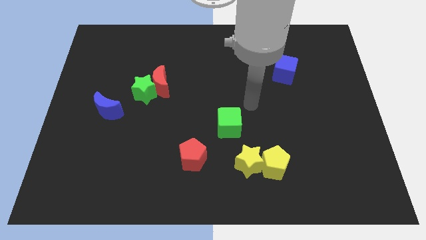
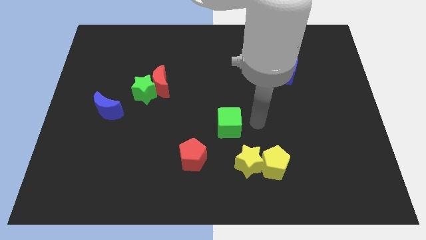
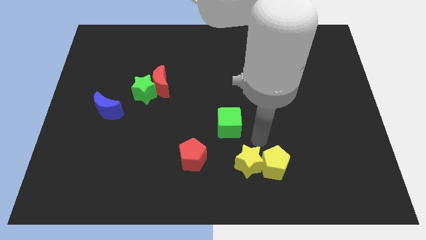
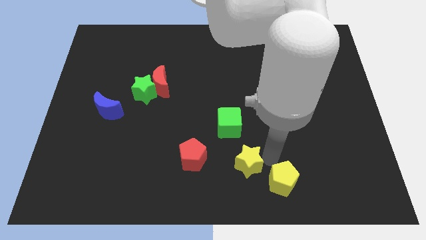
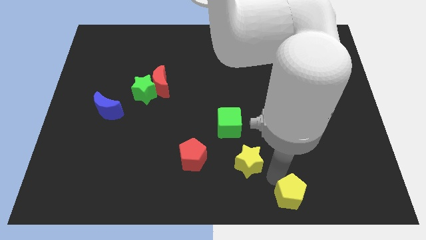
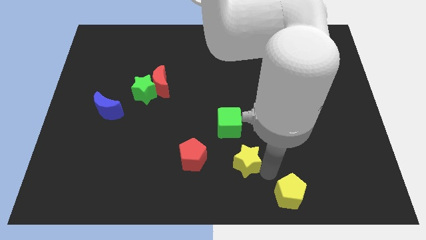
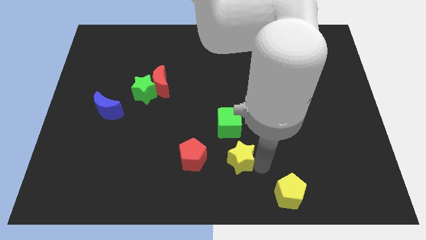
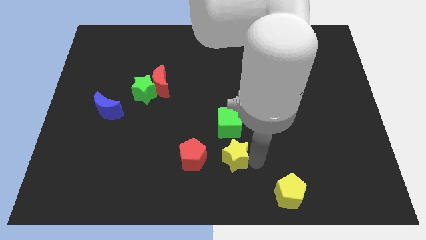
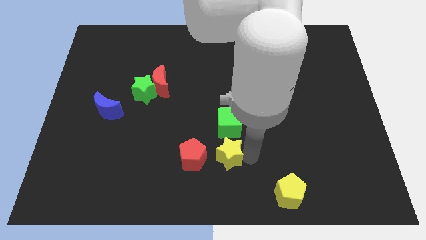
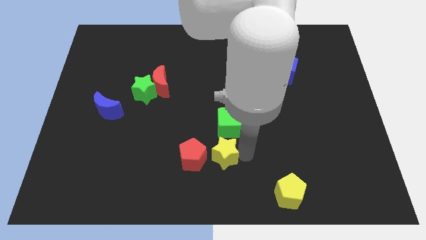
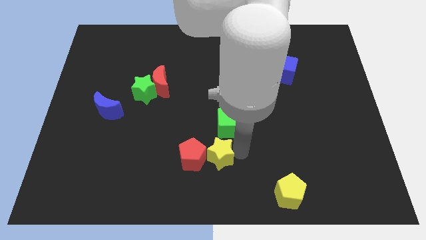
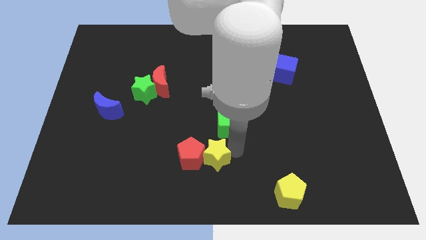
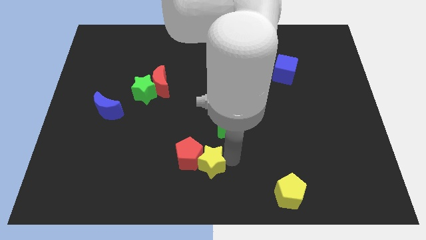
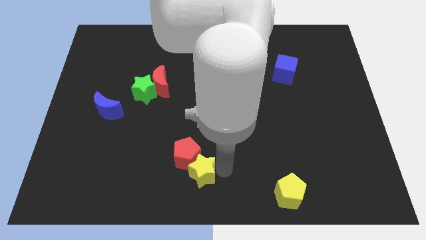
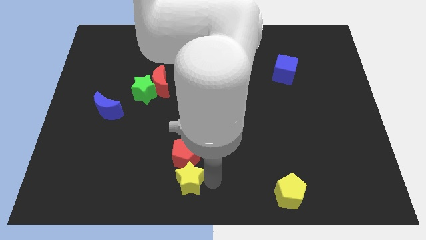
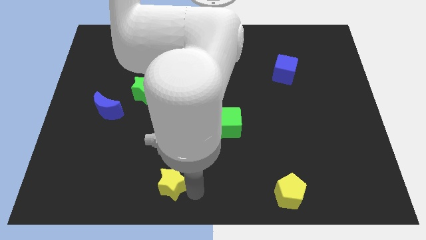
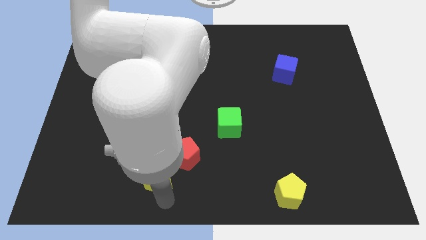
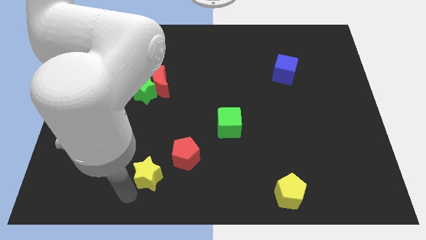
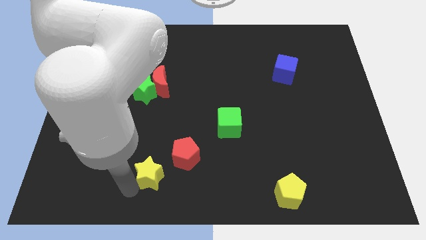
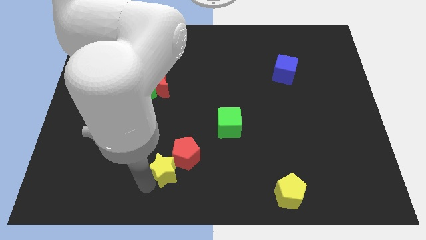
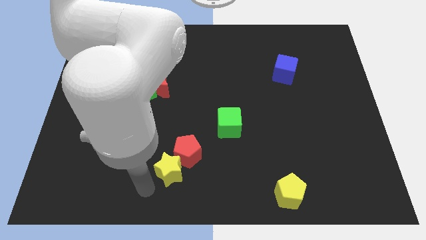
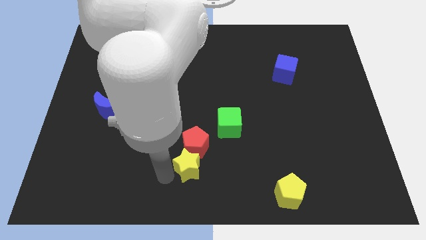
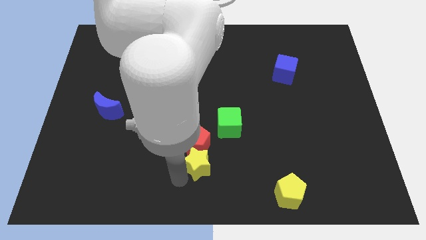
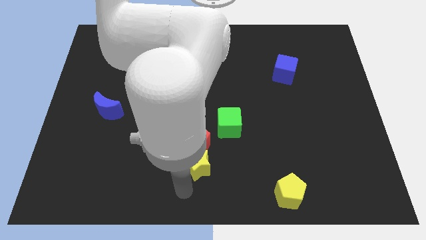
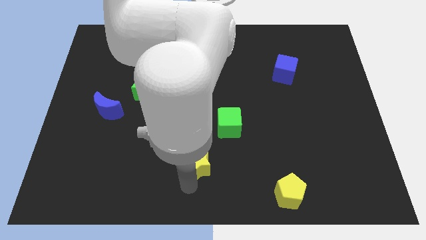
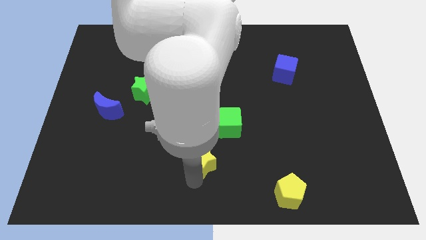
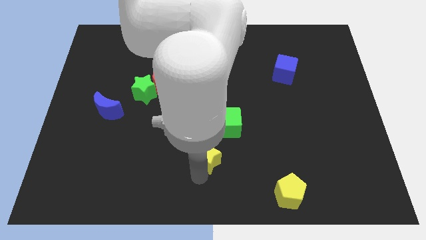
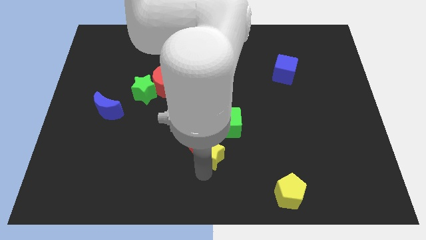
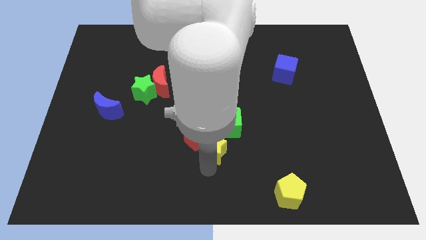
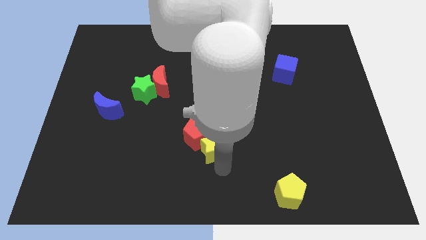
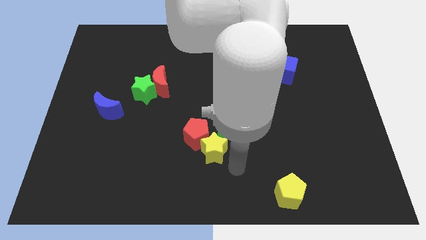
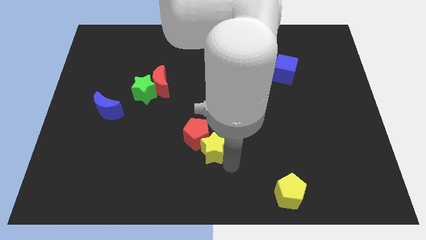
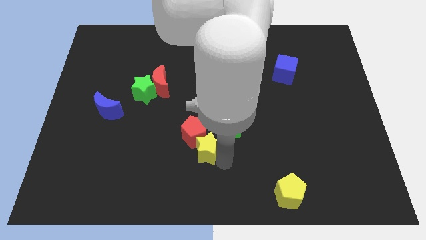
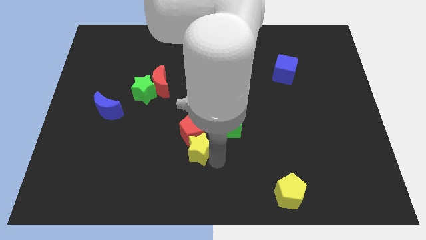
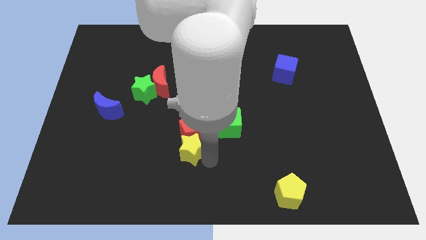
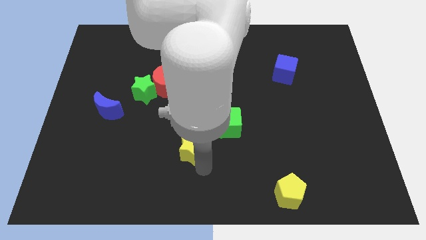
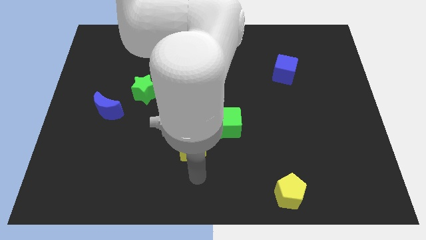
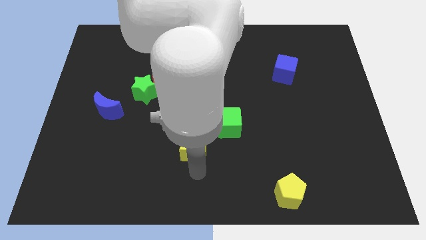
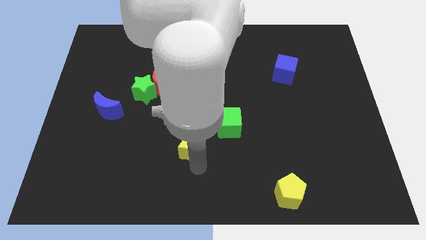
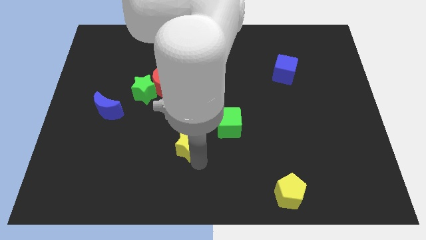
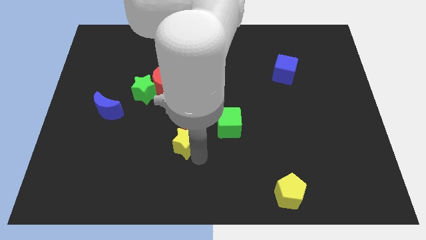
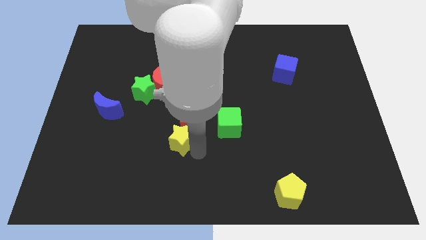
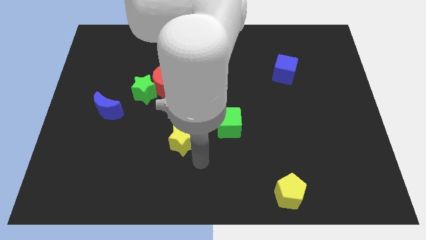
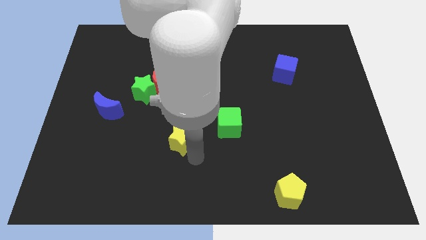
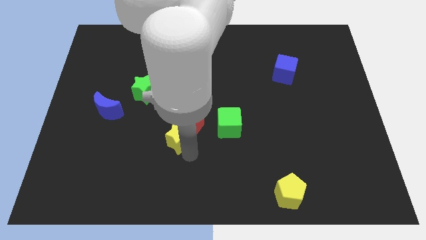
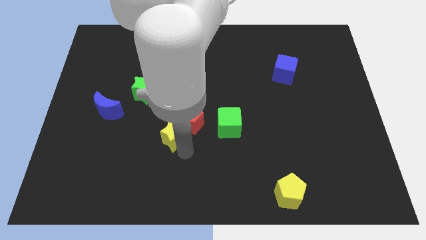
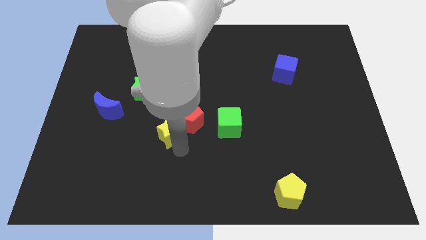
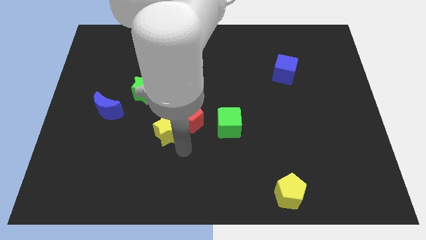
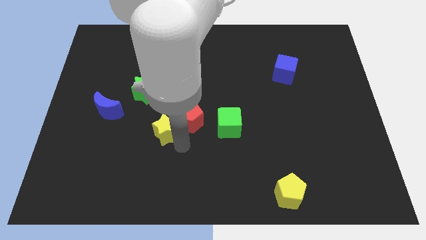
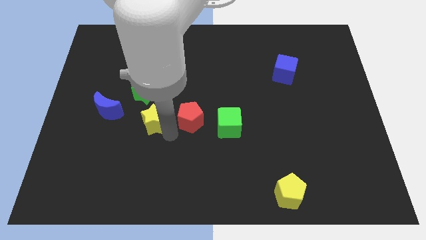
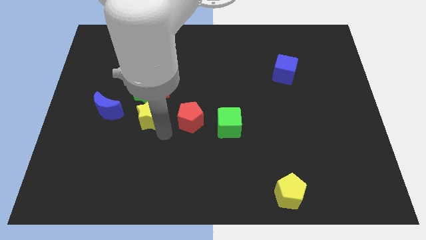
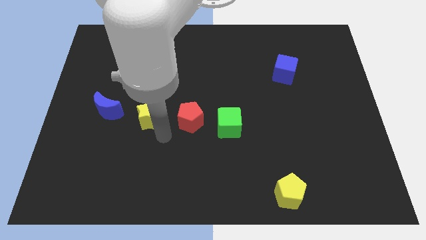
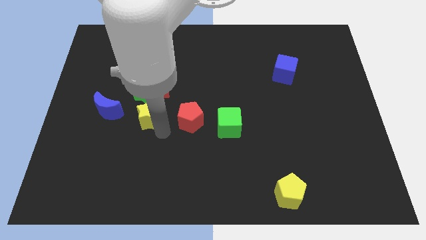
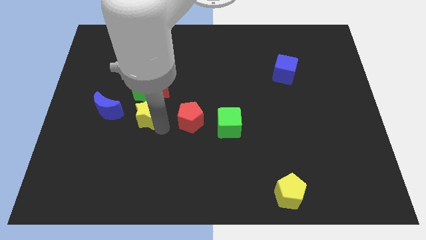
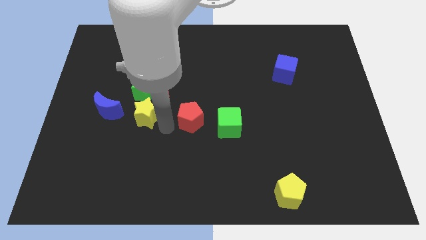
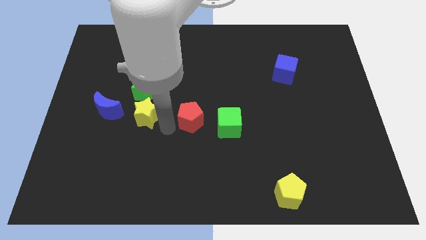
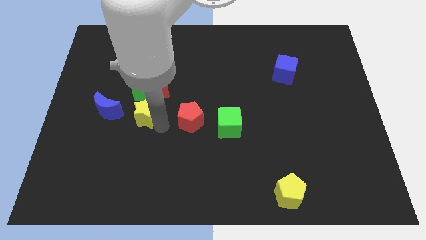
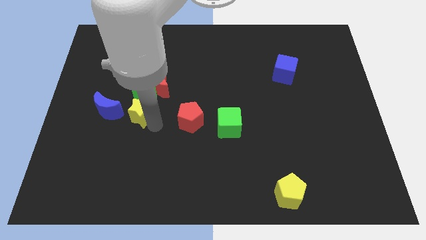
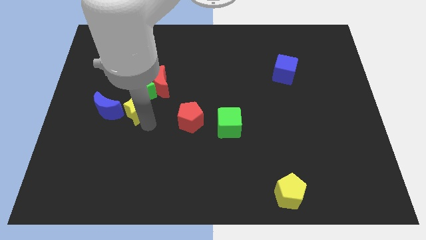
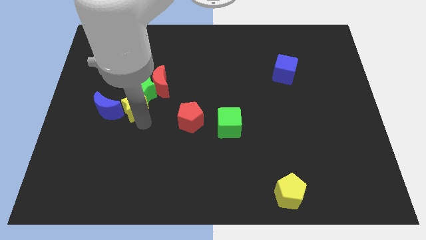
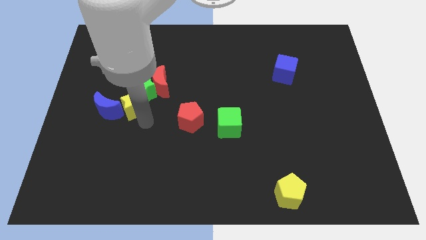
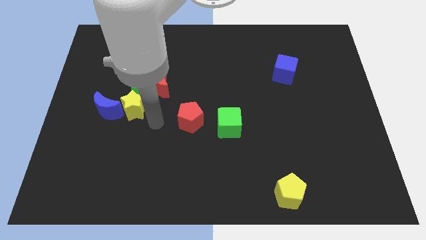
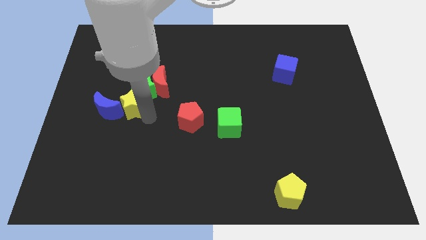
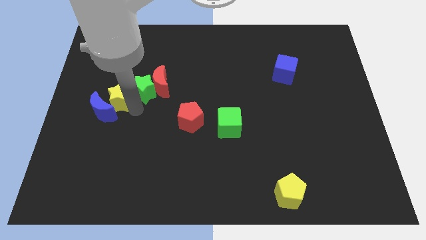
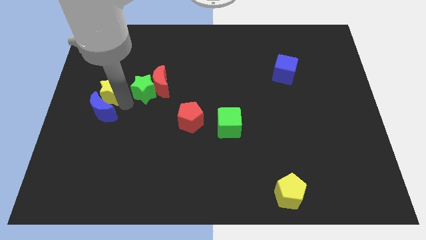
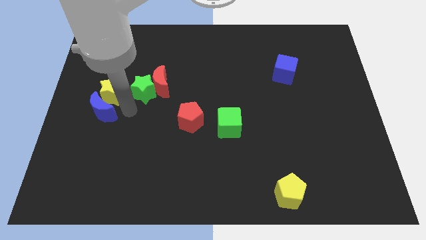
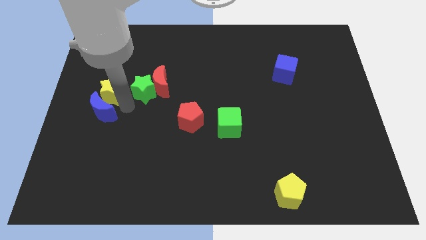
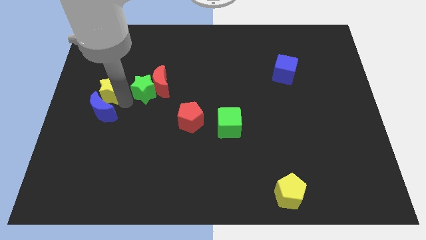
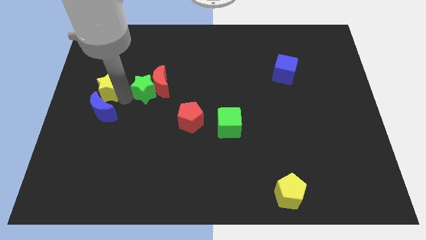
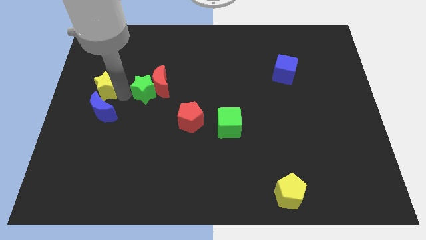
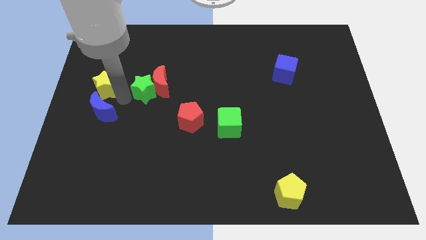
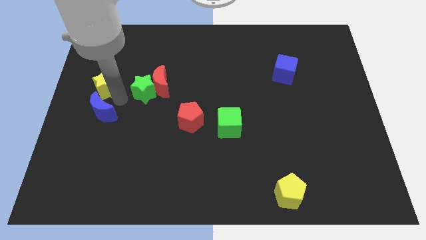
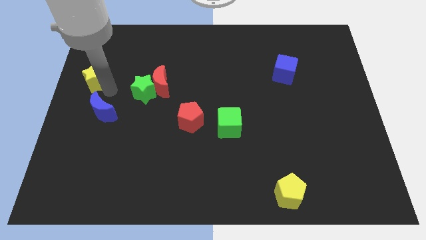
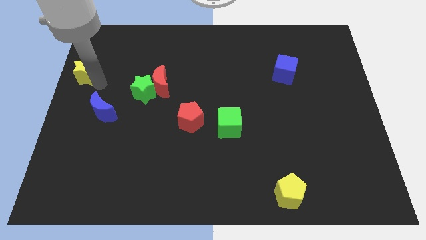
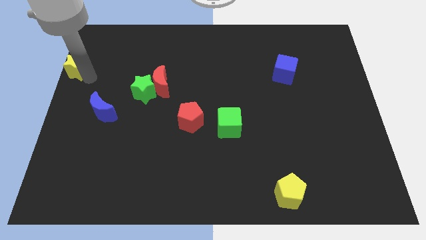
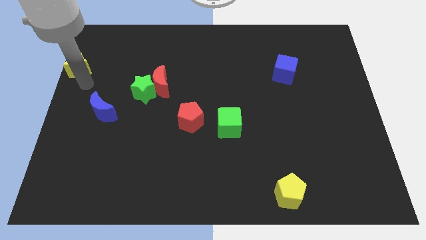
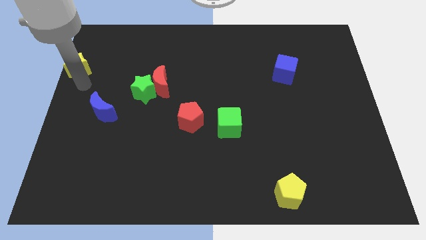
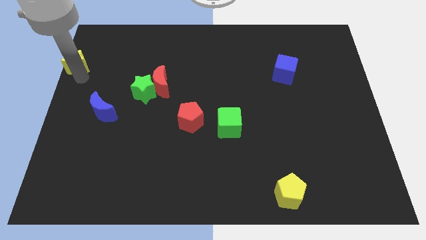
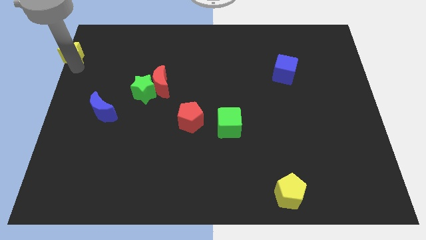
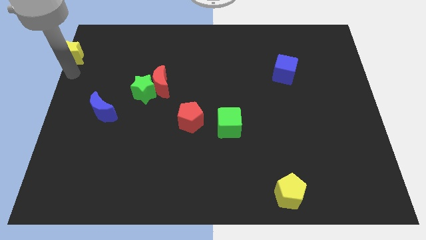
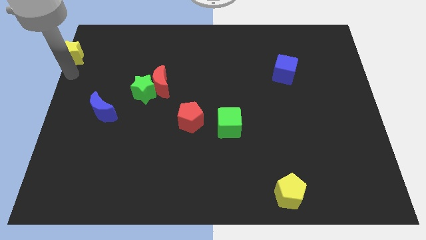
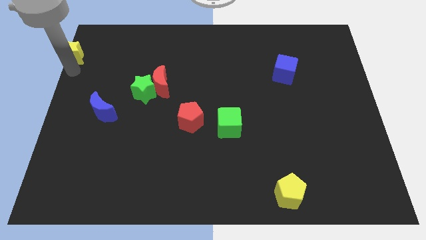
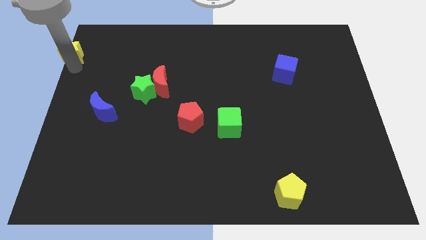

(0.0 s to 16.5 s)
slide the yellow star to the top left corner
